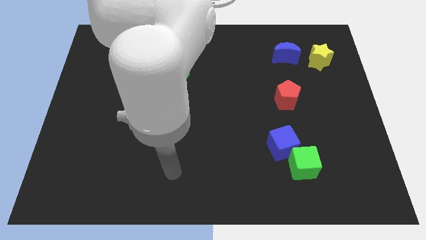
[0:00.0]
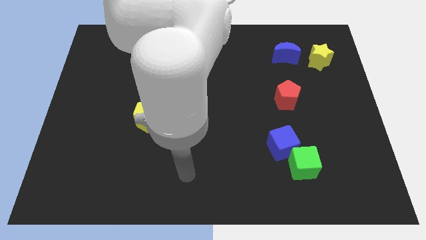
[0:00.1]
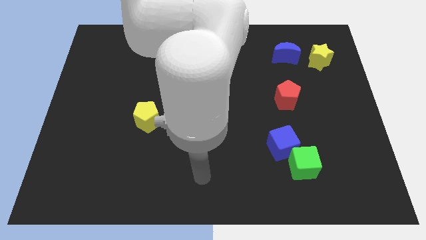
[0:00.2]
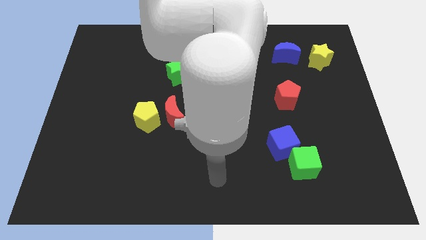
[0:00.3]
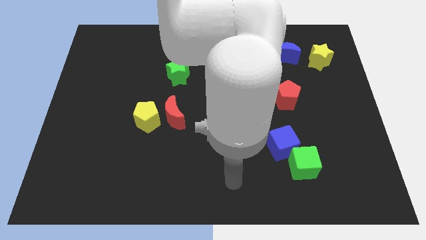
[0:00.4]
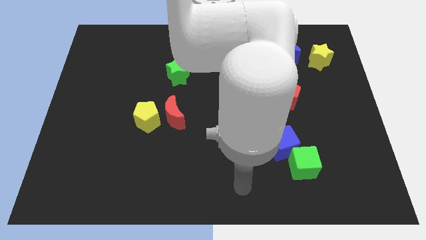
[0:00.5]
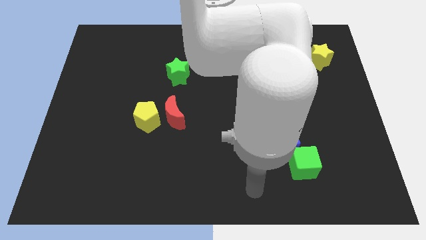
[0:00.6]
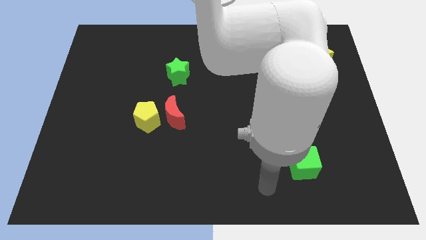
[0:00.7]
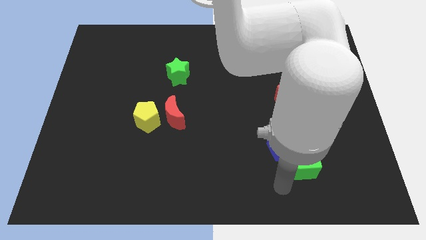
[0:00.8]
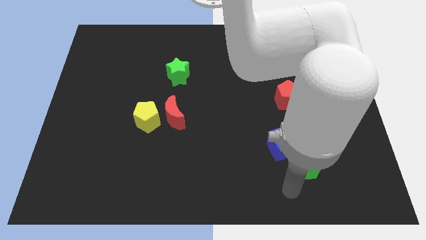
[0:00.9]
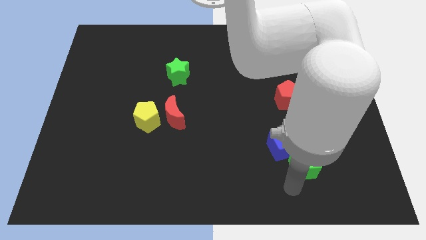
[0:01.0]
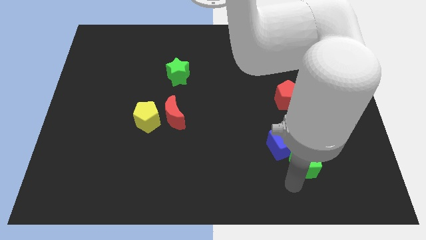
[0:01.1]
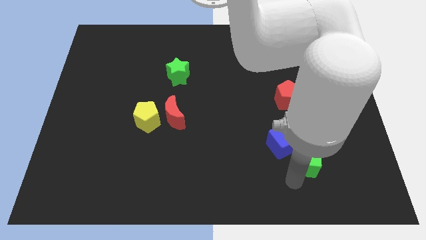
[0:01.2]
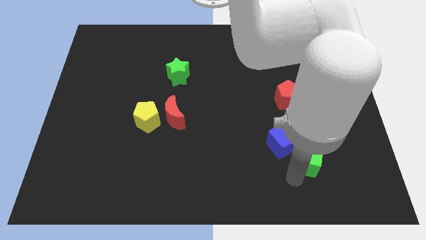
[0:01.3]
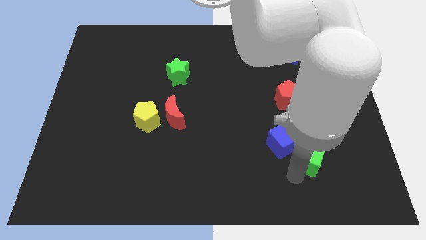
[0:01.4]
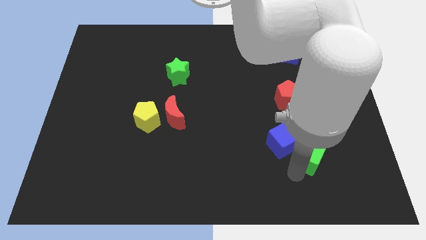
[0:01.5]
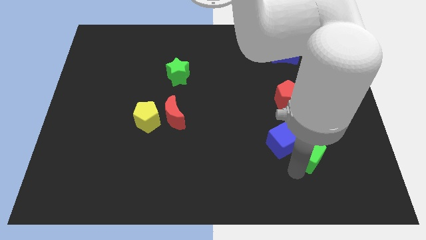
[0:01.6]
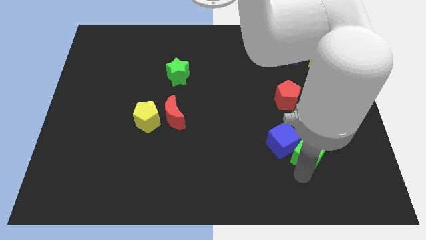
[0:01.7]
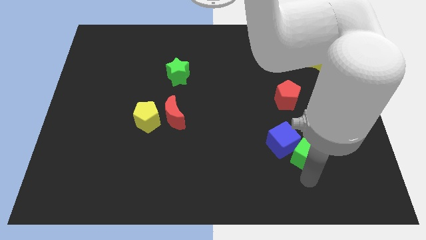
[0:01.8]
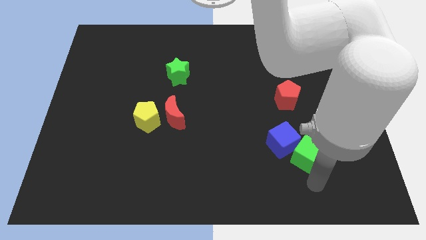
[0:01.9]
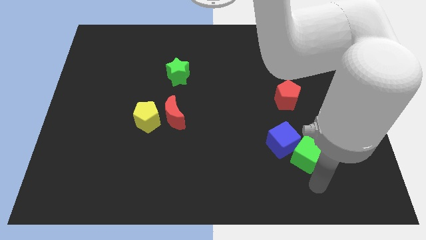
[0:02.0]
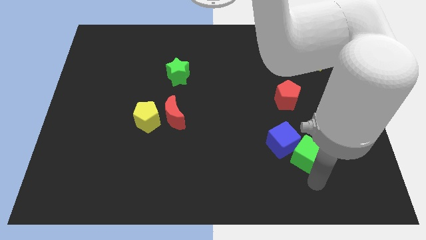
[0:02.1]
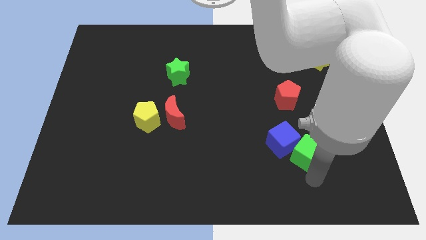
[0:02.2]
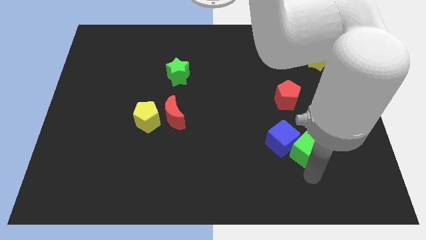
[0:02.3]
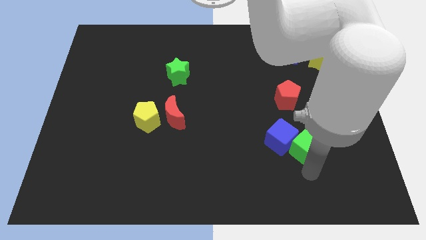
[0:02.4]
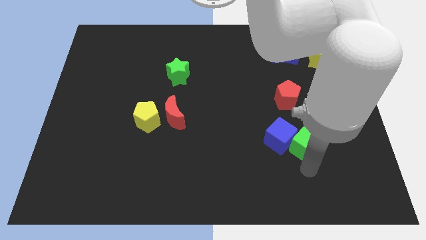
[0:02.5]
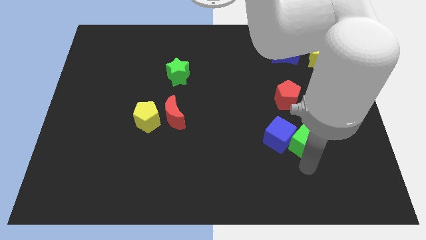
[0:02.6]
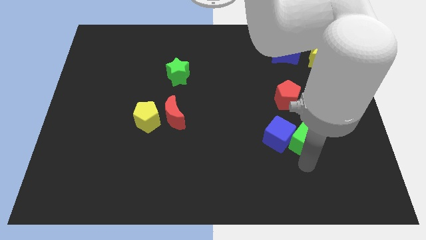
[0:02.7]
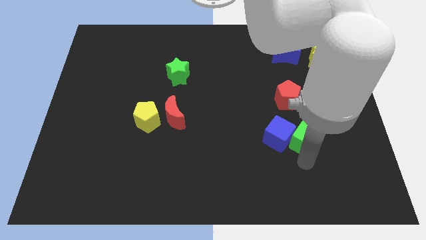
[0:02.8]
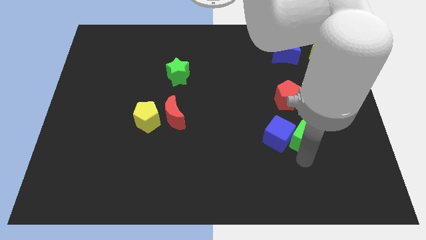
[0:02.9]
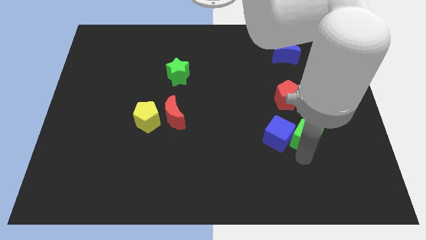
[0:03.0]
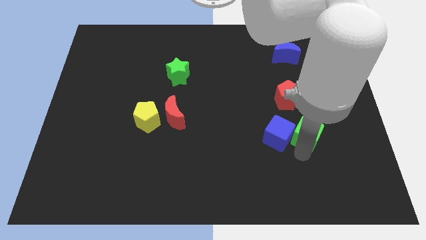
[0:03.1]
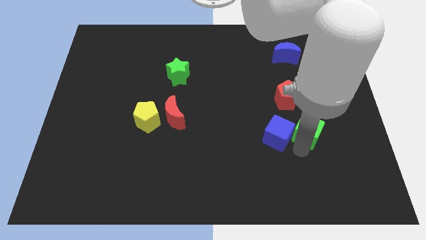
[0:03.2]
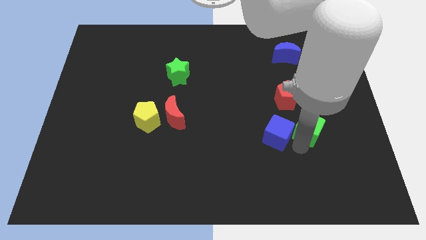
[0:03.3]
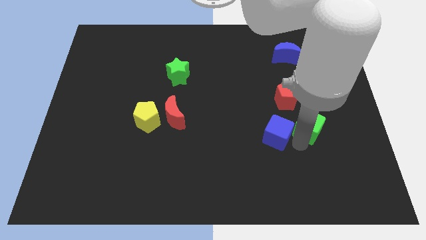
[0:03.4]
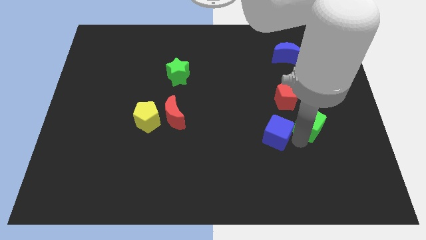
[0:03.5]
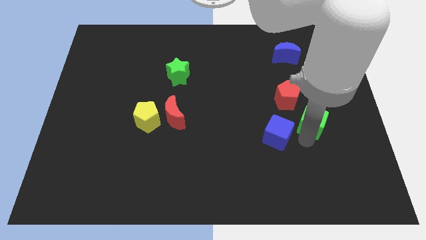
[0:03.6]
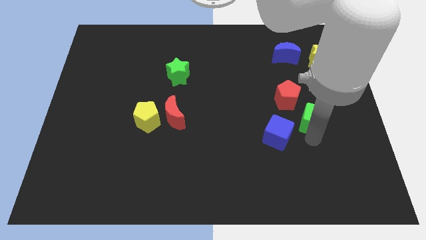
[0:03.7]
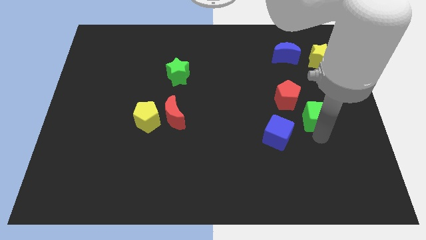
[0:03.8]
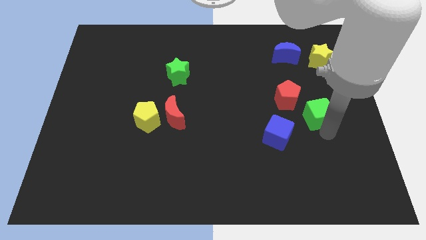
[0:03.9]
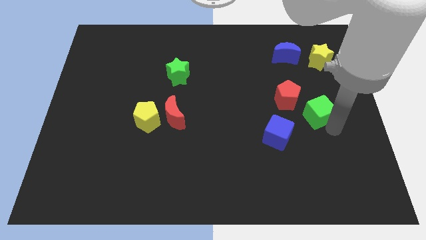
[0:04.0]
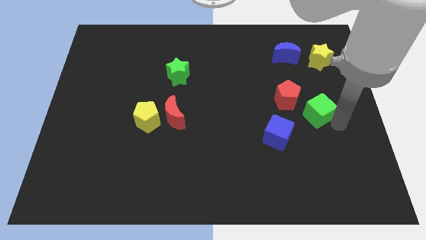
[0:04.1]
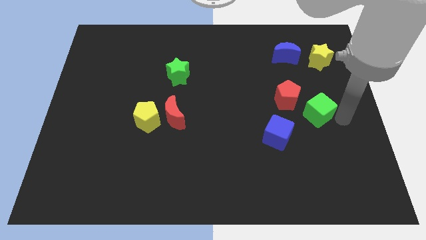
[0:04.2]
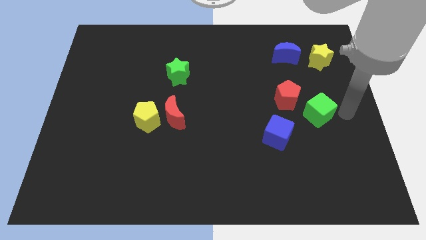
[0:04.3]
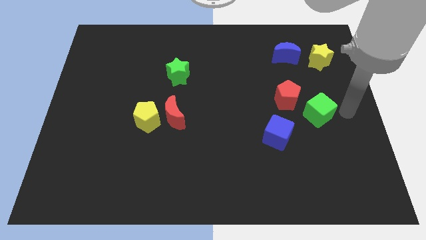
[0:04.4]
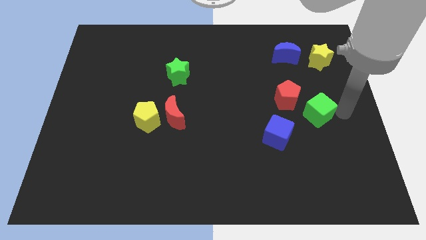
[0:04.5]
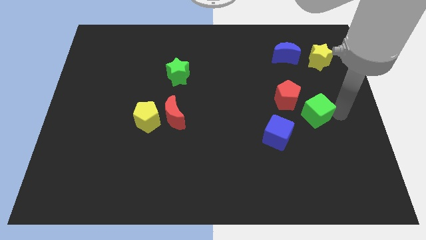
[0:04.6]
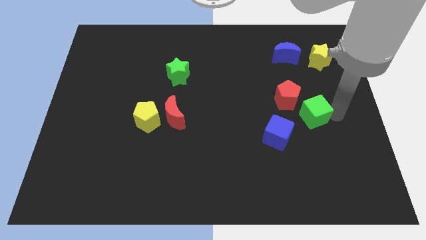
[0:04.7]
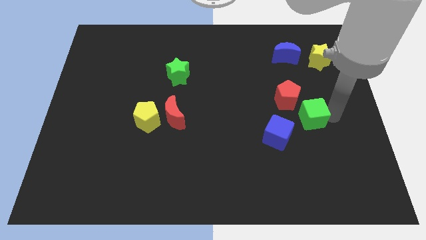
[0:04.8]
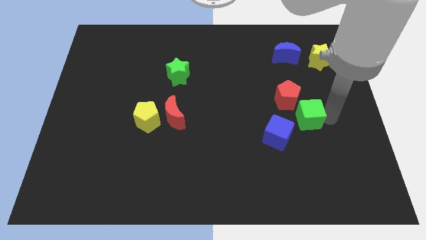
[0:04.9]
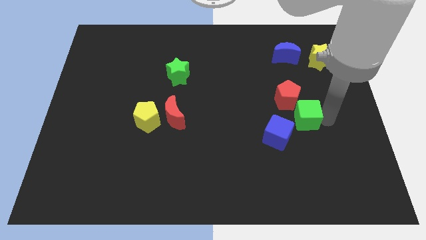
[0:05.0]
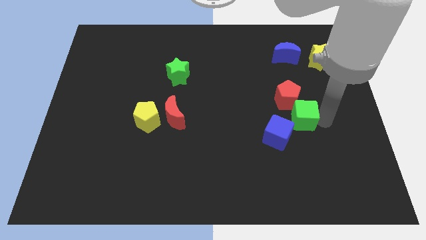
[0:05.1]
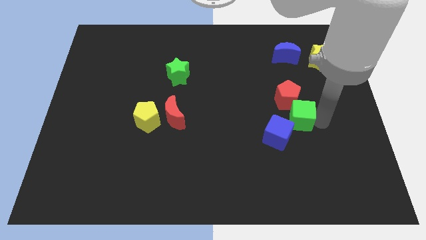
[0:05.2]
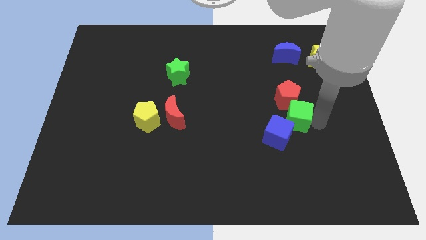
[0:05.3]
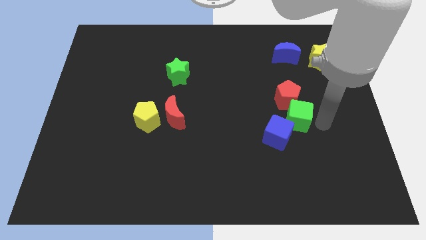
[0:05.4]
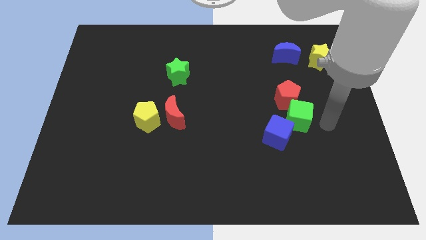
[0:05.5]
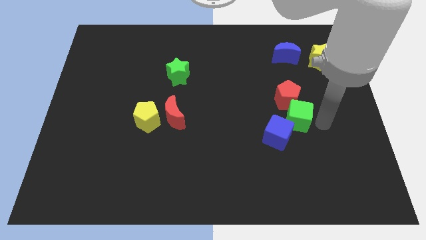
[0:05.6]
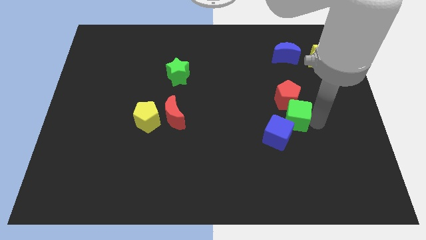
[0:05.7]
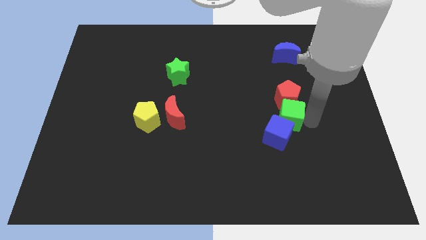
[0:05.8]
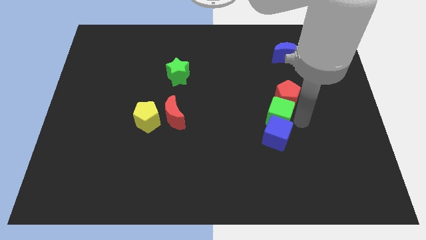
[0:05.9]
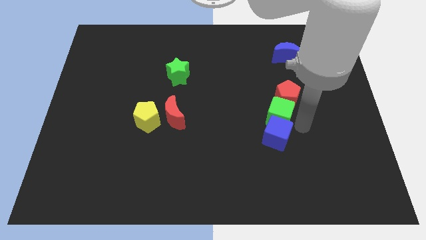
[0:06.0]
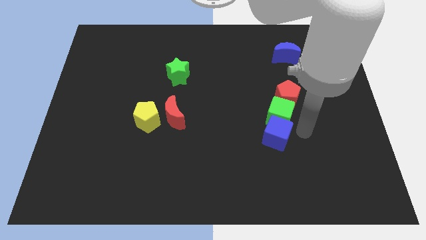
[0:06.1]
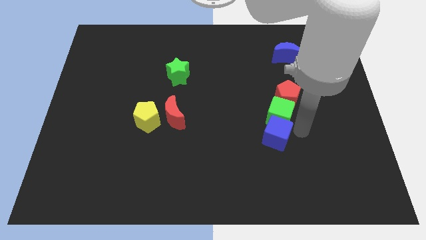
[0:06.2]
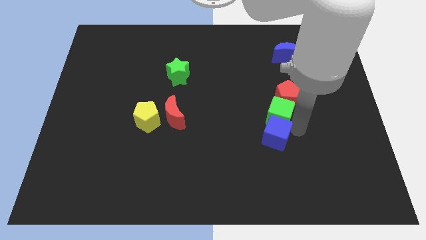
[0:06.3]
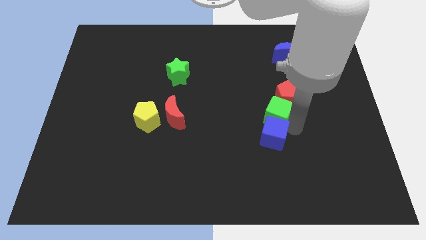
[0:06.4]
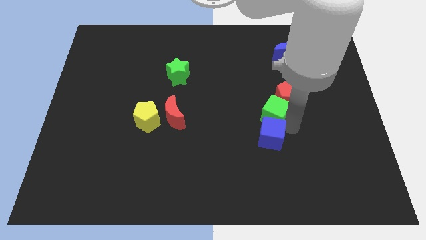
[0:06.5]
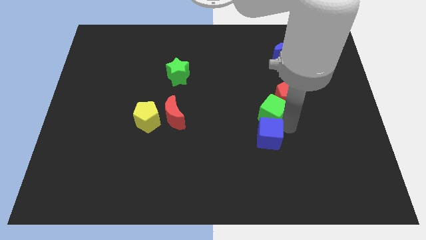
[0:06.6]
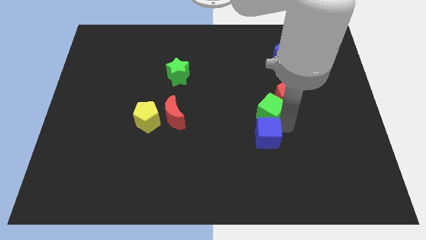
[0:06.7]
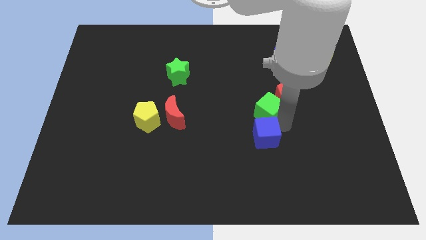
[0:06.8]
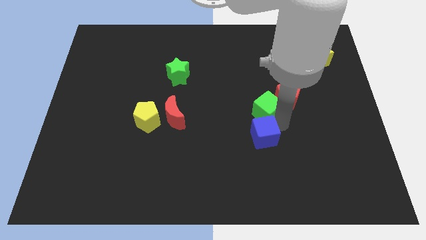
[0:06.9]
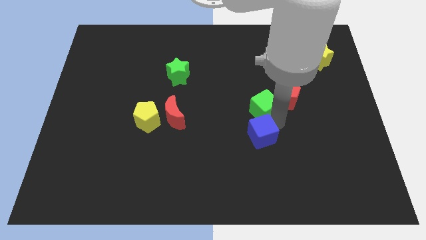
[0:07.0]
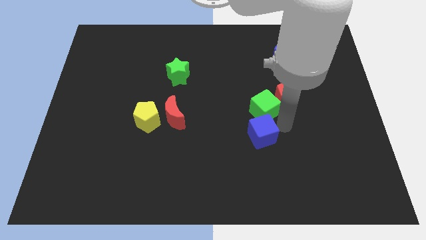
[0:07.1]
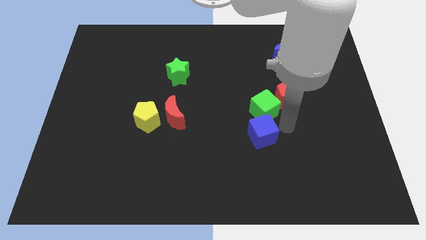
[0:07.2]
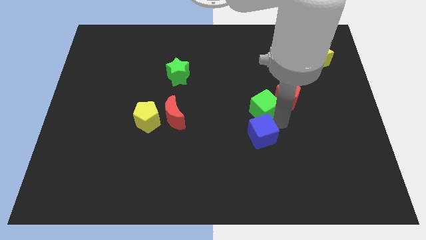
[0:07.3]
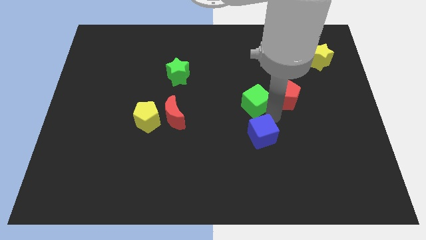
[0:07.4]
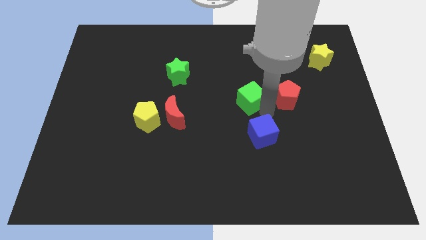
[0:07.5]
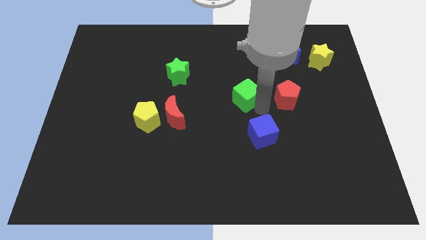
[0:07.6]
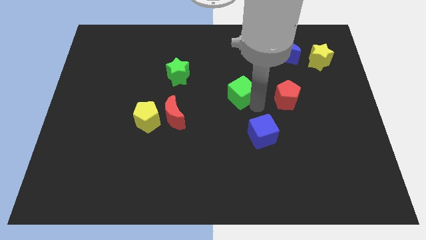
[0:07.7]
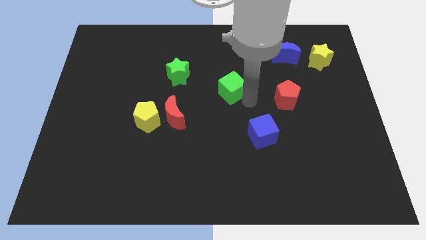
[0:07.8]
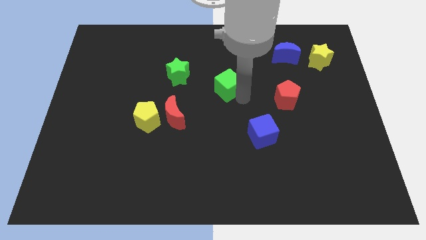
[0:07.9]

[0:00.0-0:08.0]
put the green cube right of the green star
